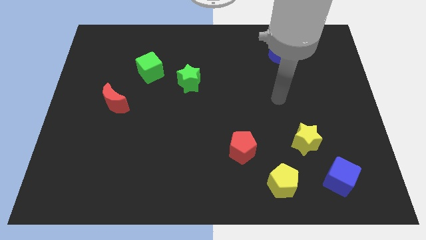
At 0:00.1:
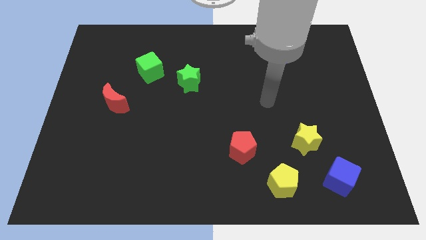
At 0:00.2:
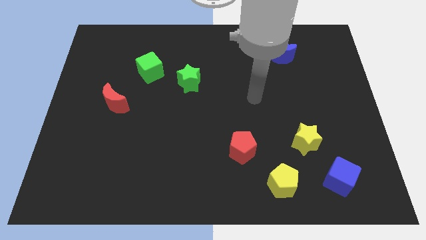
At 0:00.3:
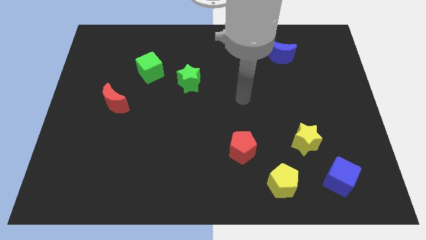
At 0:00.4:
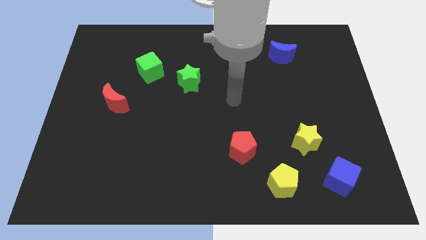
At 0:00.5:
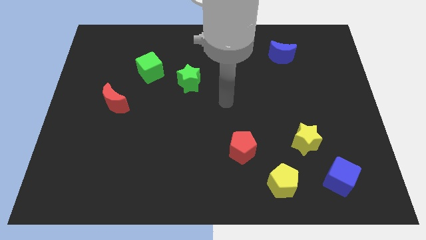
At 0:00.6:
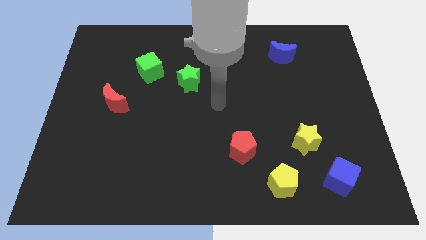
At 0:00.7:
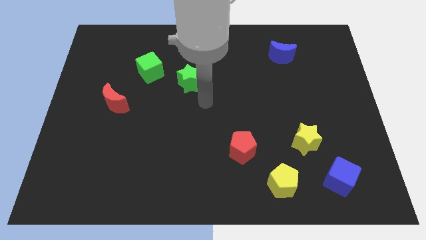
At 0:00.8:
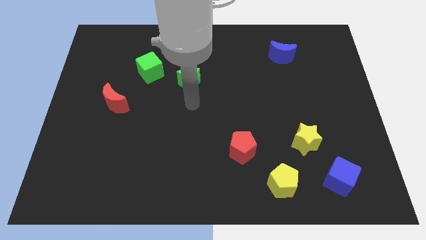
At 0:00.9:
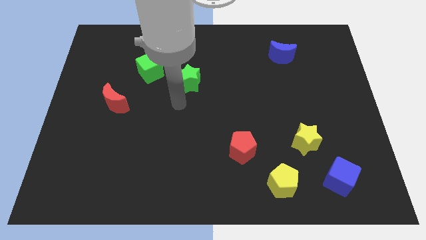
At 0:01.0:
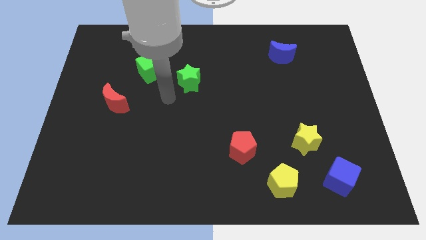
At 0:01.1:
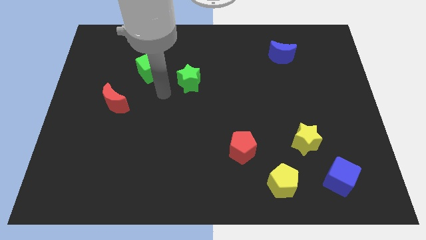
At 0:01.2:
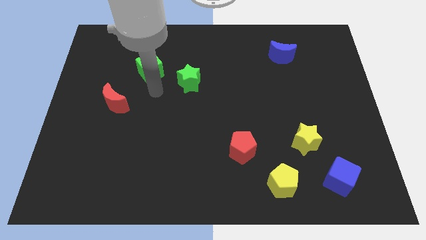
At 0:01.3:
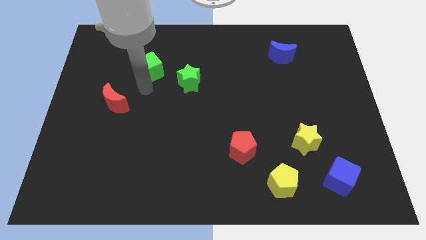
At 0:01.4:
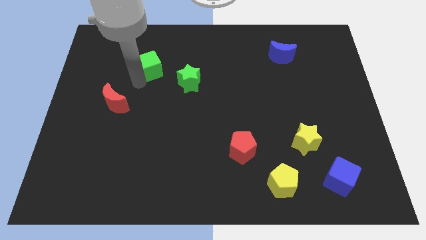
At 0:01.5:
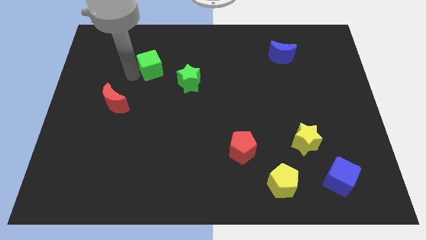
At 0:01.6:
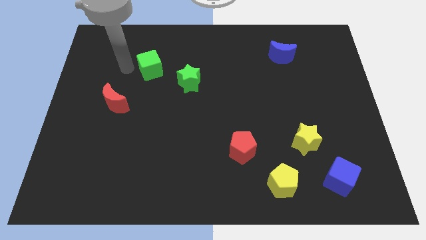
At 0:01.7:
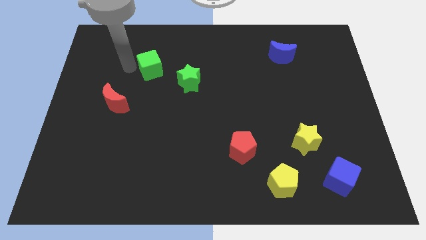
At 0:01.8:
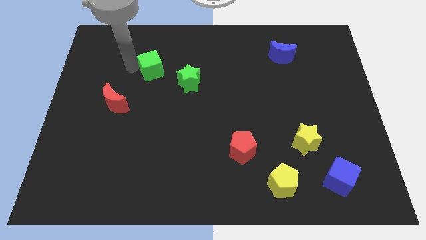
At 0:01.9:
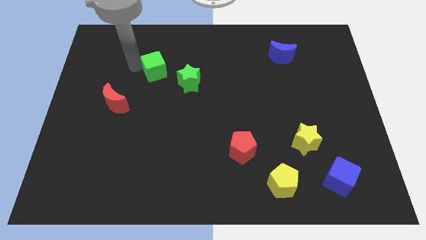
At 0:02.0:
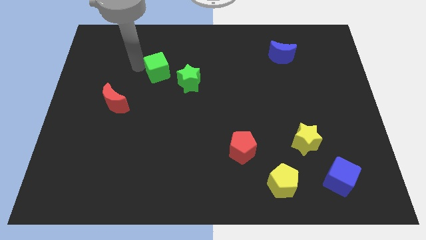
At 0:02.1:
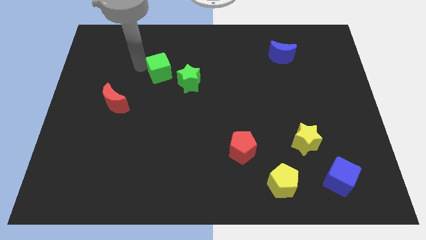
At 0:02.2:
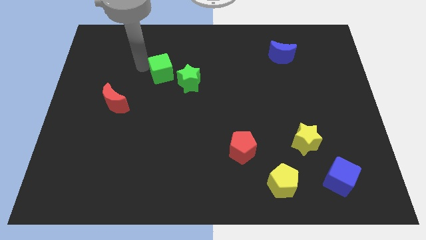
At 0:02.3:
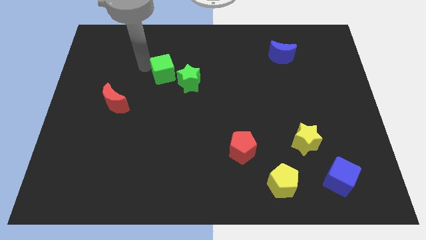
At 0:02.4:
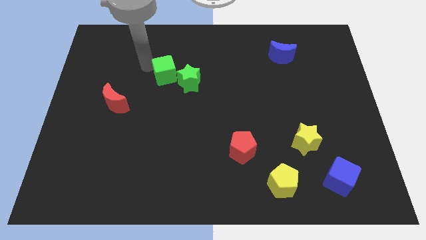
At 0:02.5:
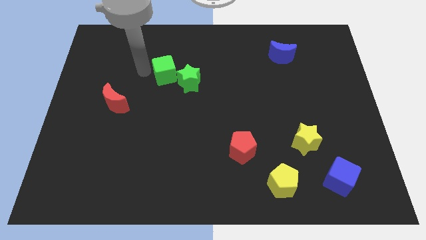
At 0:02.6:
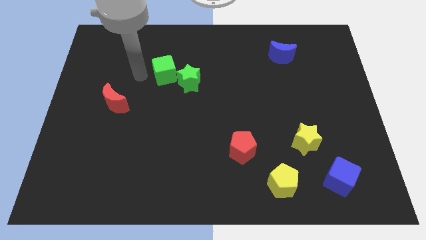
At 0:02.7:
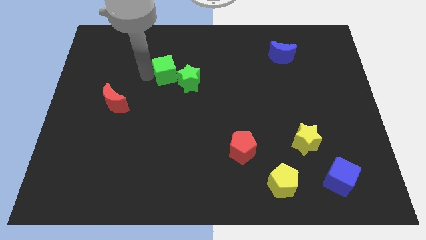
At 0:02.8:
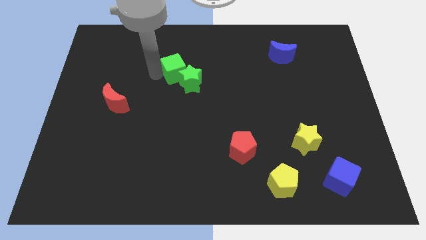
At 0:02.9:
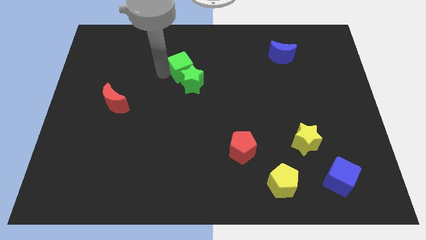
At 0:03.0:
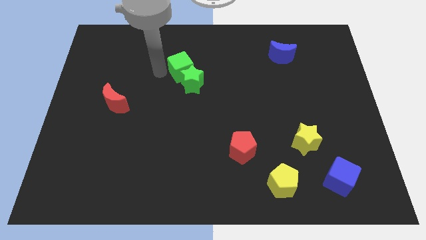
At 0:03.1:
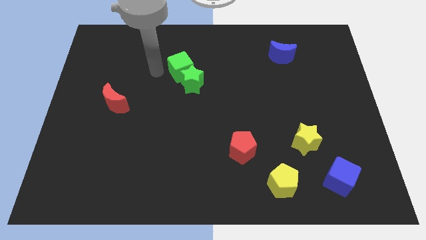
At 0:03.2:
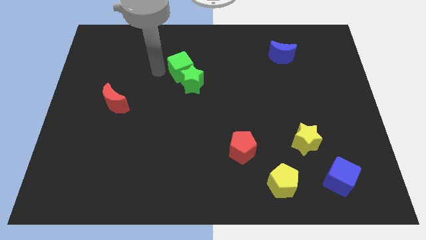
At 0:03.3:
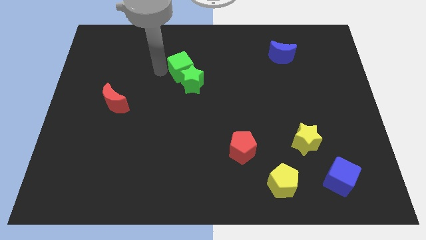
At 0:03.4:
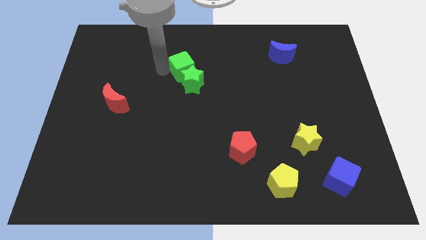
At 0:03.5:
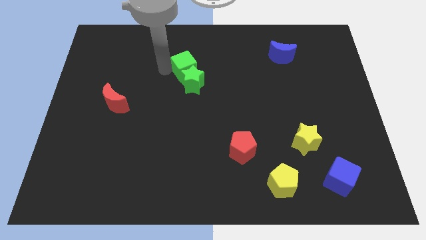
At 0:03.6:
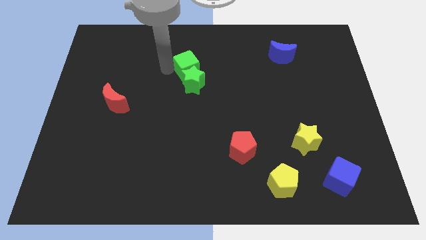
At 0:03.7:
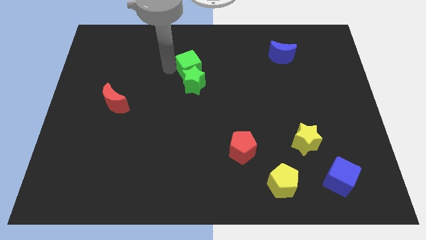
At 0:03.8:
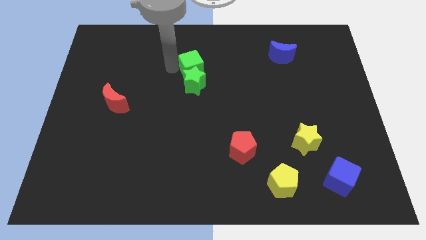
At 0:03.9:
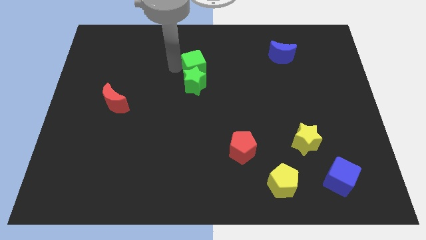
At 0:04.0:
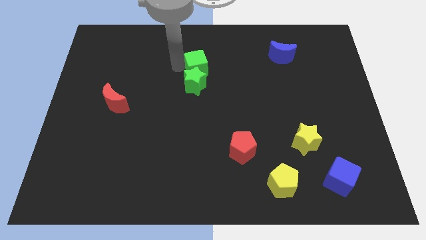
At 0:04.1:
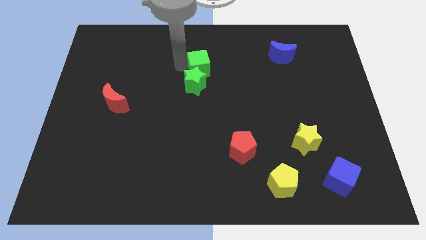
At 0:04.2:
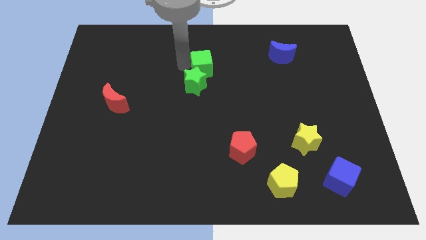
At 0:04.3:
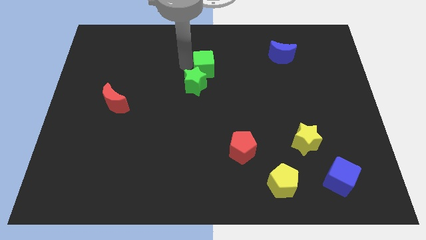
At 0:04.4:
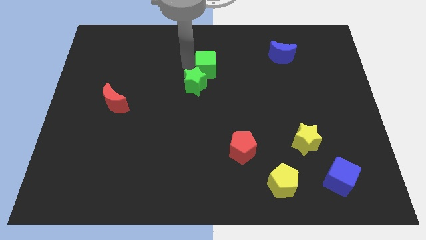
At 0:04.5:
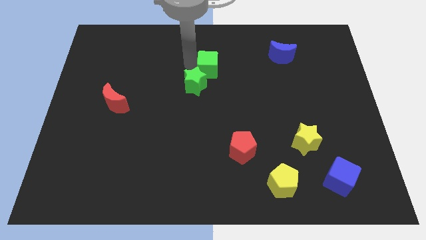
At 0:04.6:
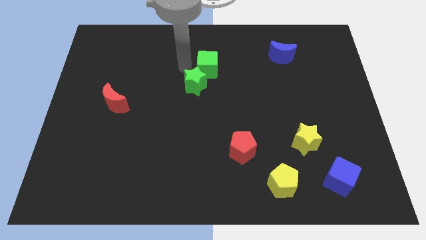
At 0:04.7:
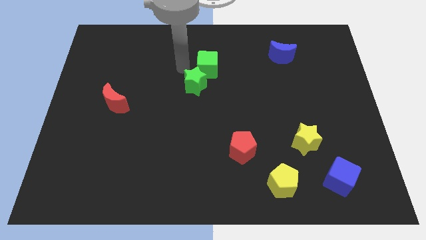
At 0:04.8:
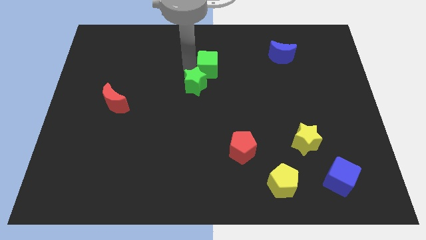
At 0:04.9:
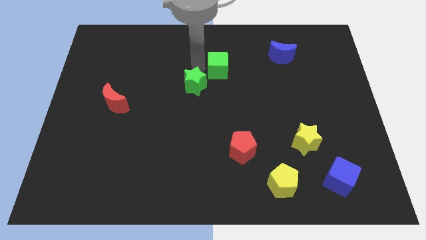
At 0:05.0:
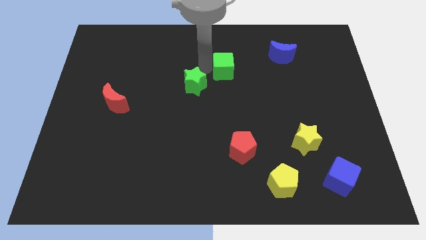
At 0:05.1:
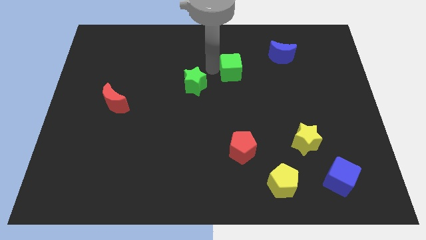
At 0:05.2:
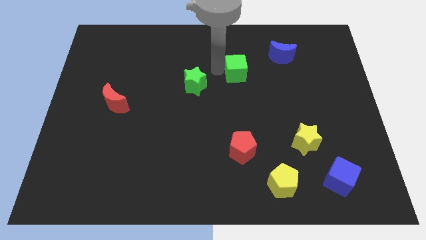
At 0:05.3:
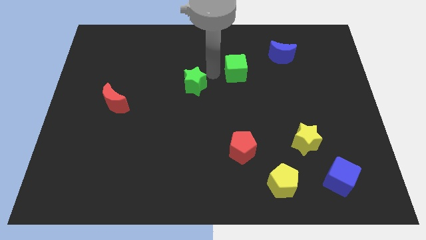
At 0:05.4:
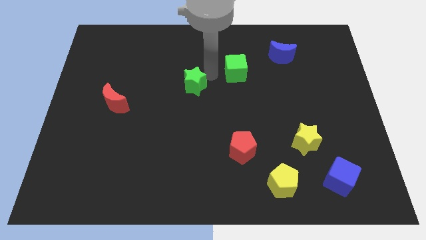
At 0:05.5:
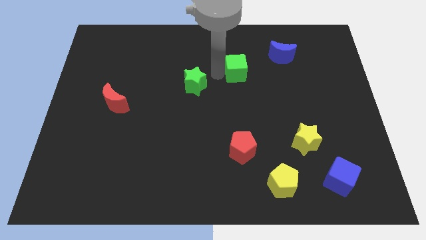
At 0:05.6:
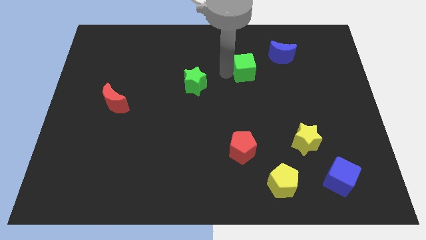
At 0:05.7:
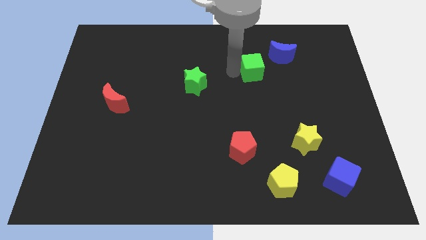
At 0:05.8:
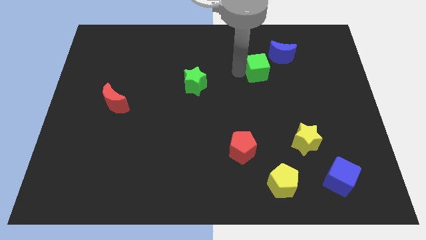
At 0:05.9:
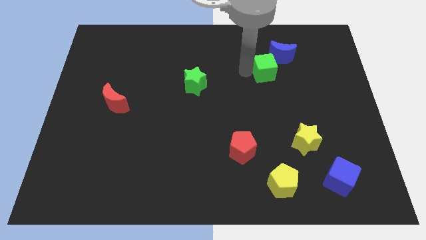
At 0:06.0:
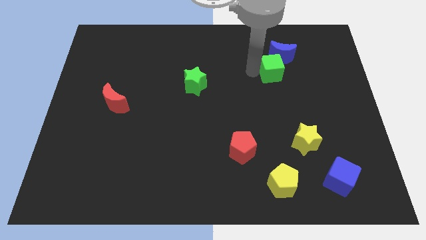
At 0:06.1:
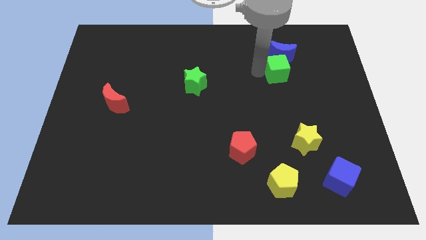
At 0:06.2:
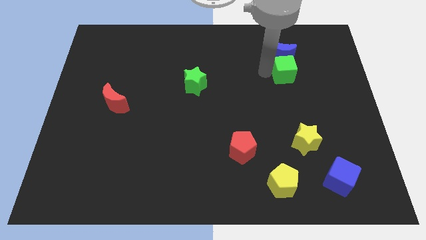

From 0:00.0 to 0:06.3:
push the green cube to the bottom right of the blue moon

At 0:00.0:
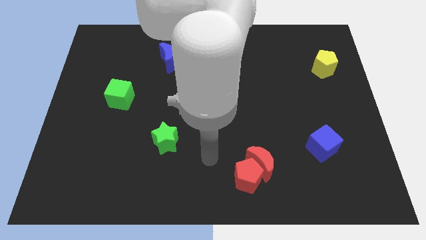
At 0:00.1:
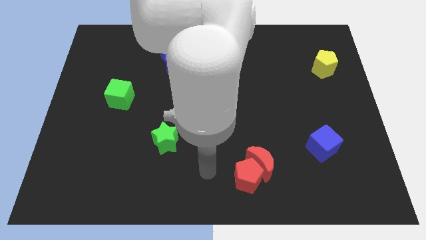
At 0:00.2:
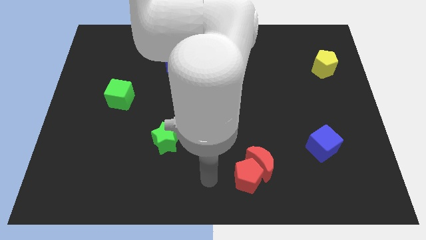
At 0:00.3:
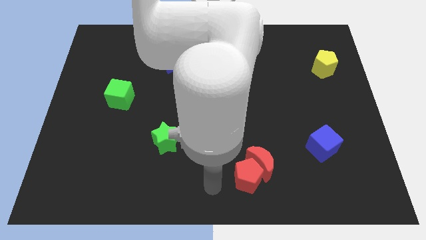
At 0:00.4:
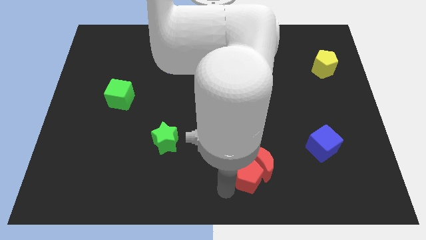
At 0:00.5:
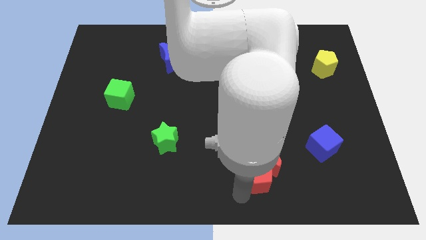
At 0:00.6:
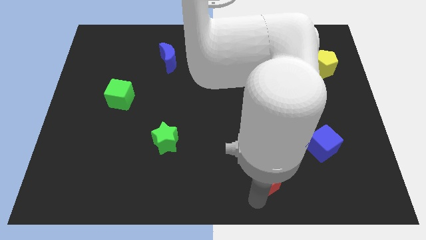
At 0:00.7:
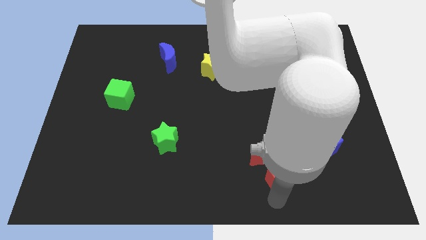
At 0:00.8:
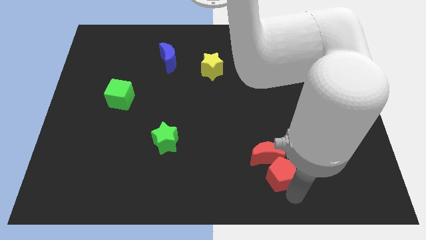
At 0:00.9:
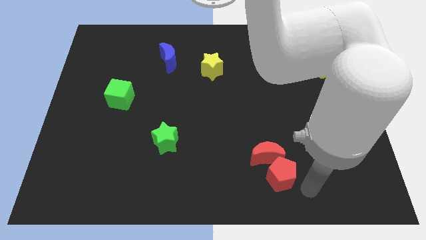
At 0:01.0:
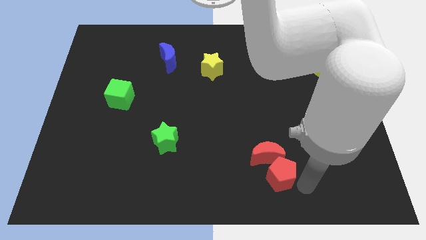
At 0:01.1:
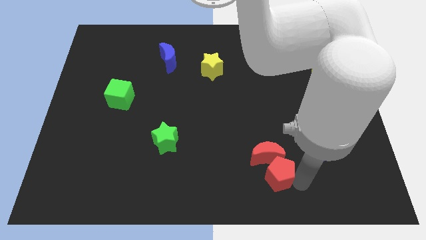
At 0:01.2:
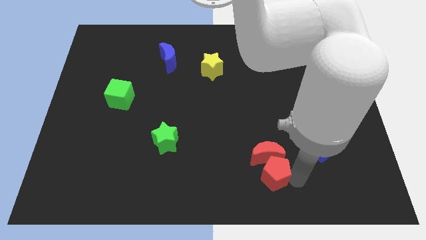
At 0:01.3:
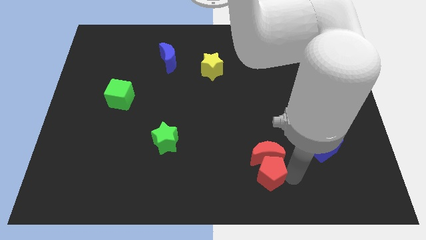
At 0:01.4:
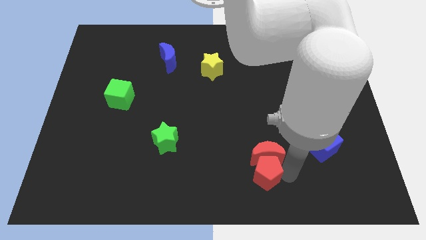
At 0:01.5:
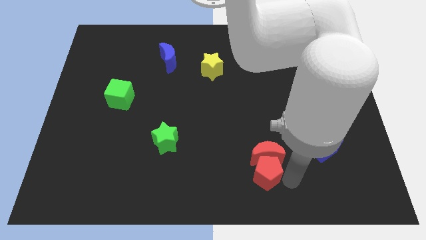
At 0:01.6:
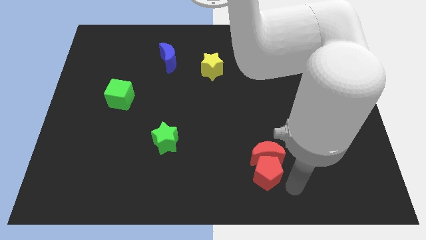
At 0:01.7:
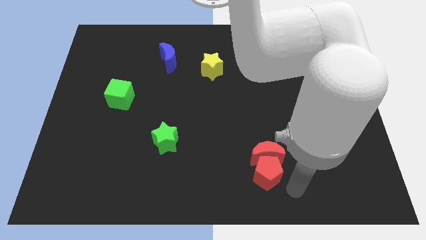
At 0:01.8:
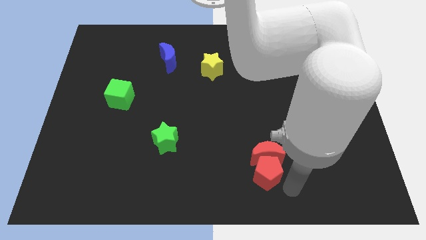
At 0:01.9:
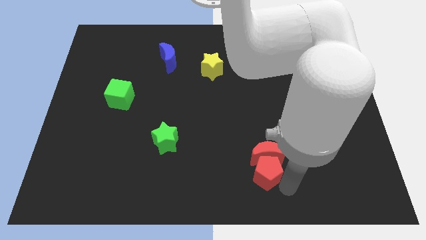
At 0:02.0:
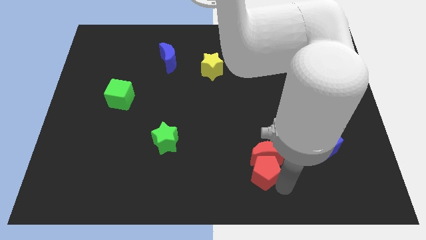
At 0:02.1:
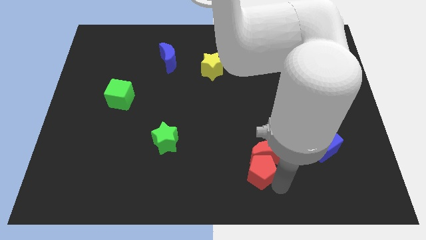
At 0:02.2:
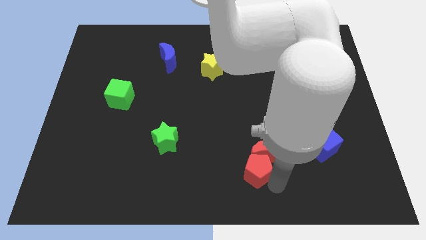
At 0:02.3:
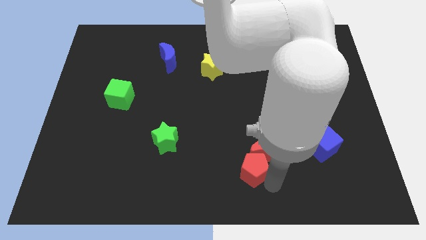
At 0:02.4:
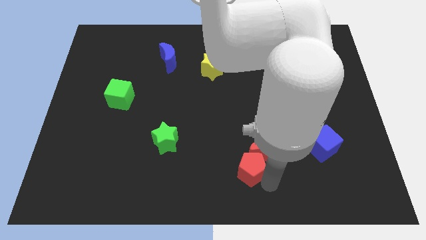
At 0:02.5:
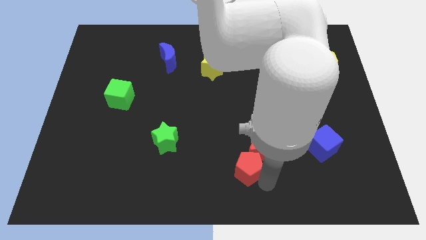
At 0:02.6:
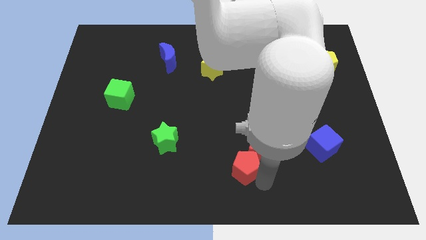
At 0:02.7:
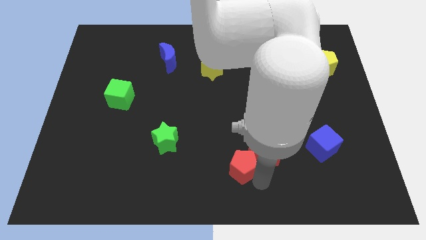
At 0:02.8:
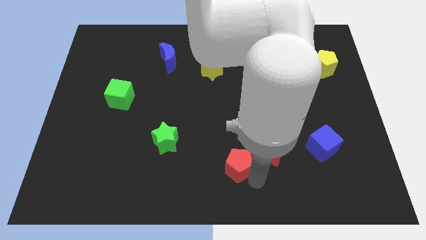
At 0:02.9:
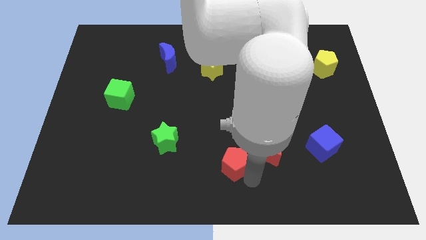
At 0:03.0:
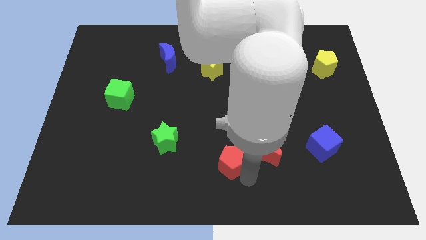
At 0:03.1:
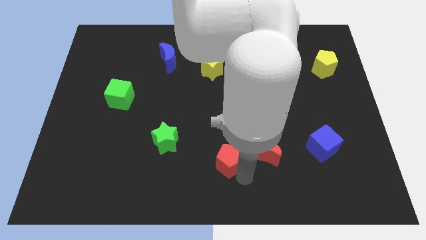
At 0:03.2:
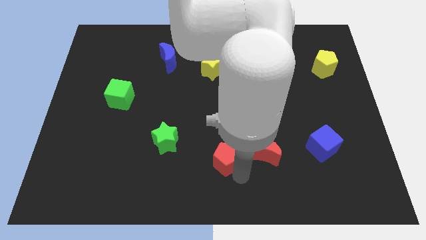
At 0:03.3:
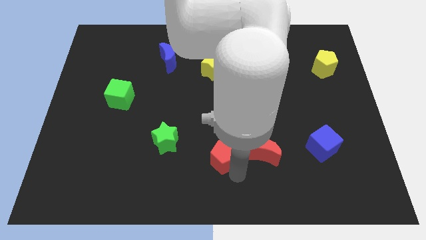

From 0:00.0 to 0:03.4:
push the red pentagon just right of the green star
